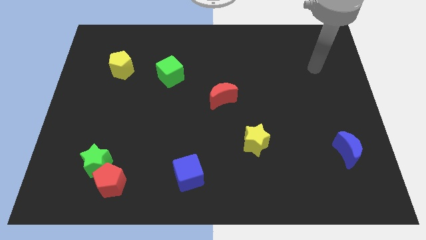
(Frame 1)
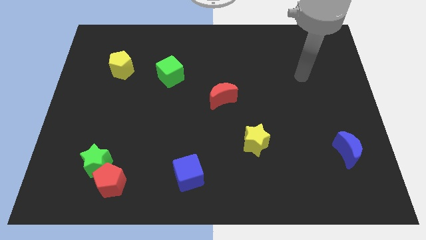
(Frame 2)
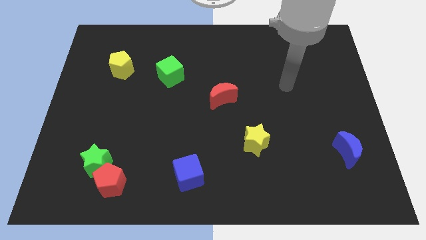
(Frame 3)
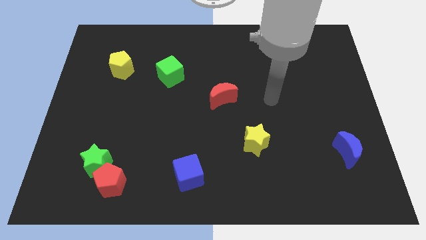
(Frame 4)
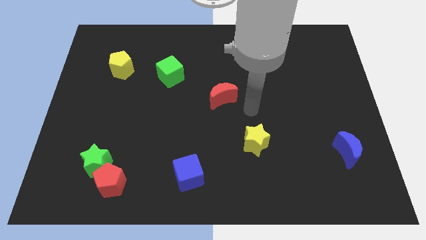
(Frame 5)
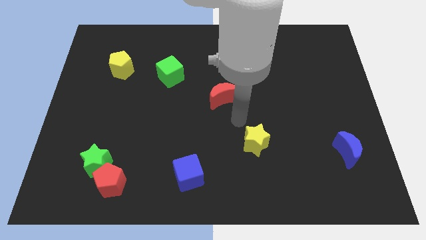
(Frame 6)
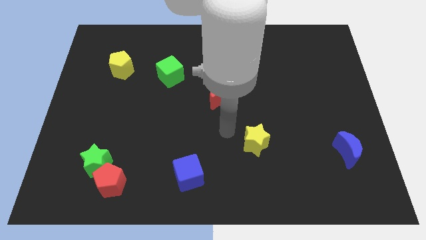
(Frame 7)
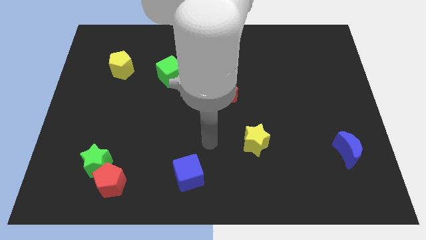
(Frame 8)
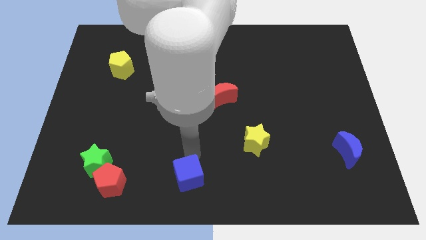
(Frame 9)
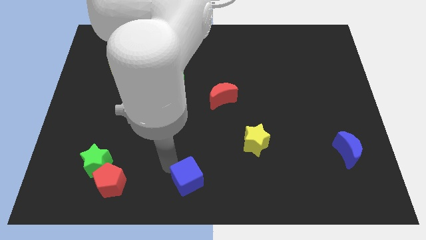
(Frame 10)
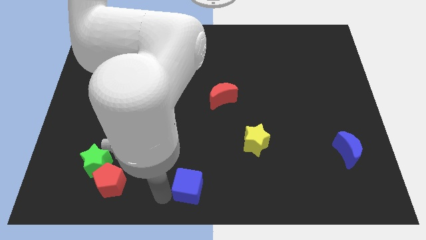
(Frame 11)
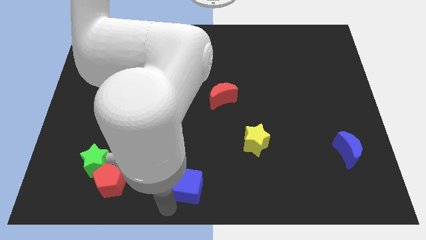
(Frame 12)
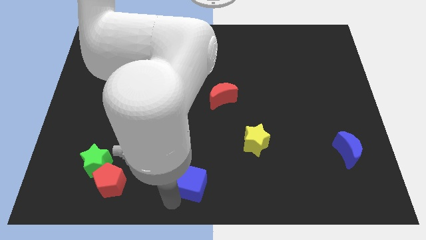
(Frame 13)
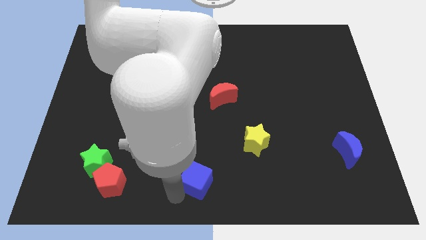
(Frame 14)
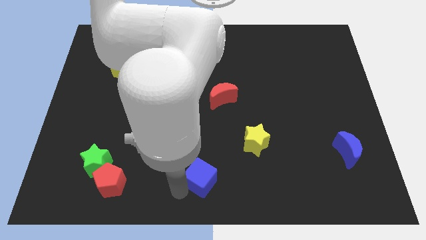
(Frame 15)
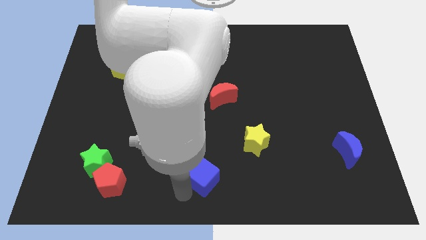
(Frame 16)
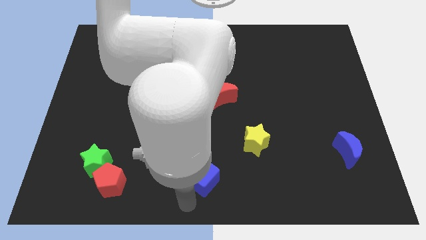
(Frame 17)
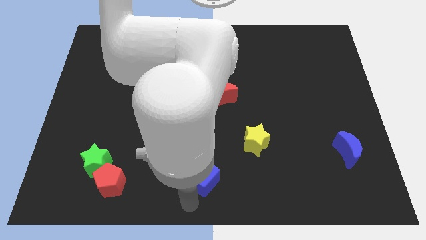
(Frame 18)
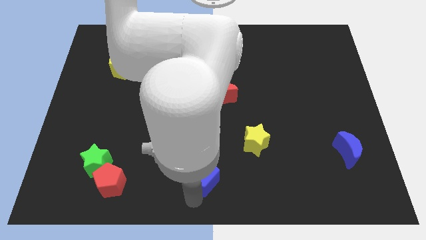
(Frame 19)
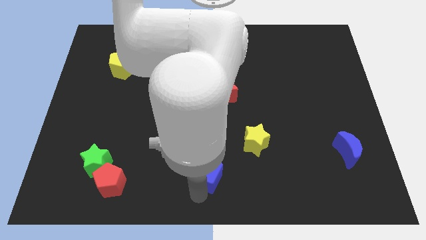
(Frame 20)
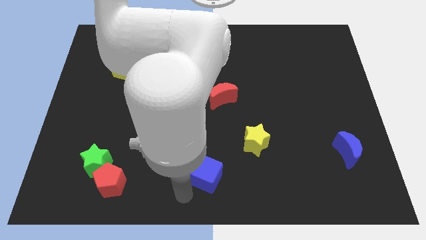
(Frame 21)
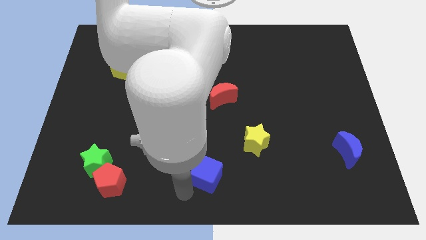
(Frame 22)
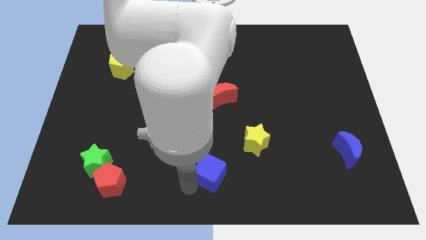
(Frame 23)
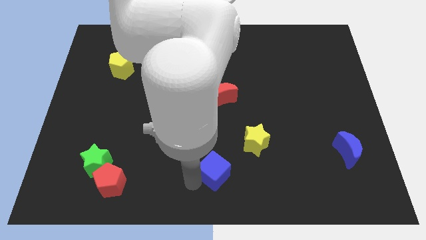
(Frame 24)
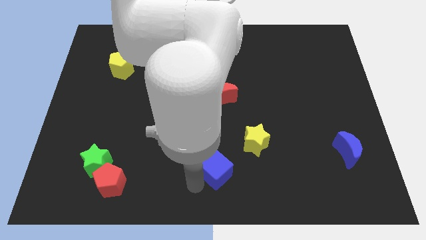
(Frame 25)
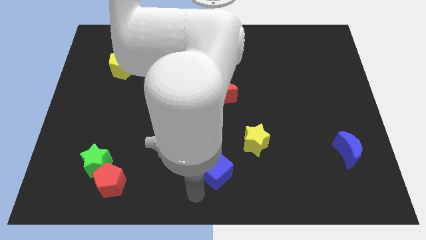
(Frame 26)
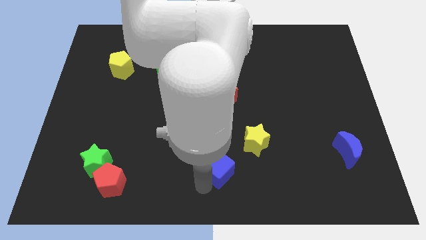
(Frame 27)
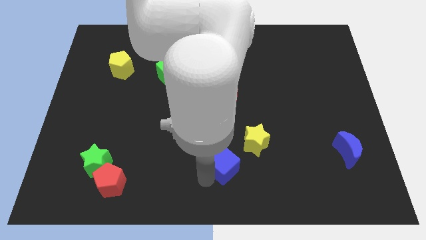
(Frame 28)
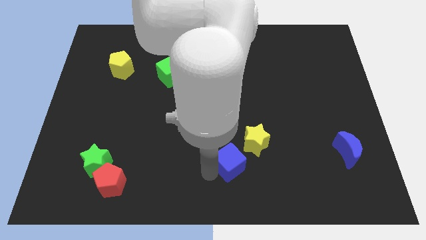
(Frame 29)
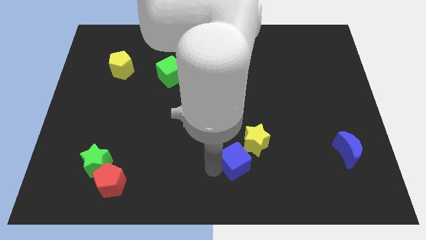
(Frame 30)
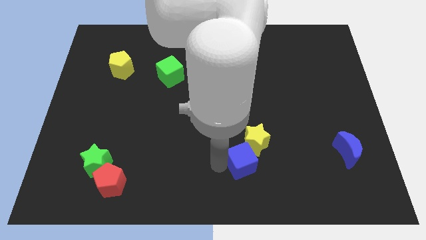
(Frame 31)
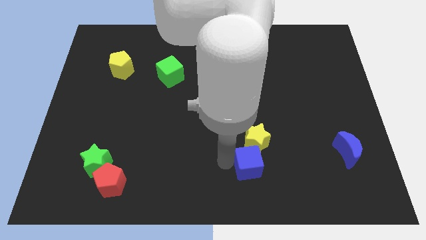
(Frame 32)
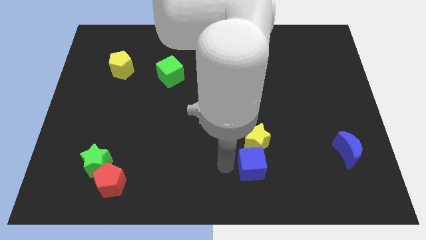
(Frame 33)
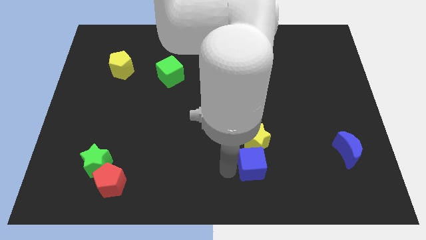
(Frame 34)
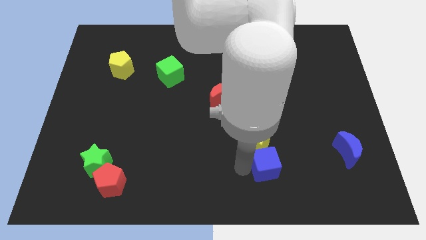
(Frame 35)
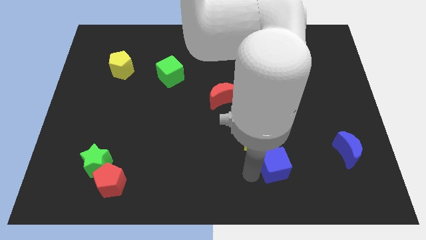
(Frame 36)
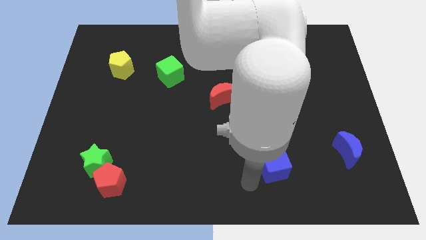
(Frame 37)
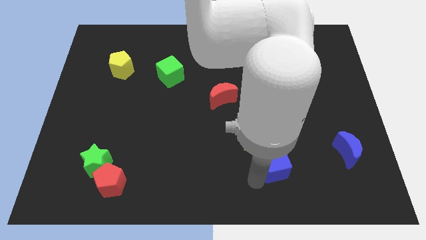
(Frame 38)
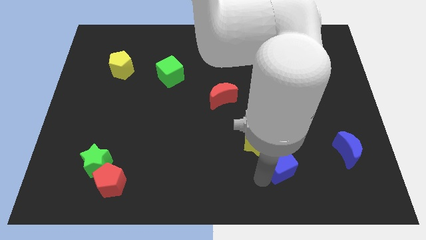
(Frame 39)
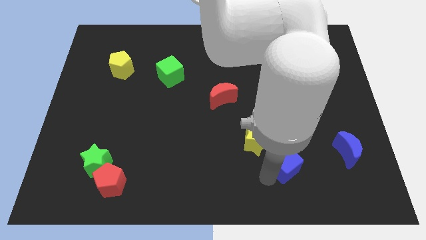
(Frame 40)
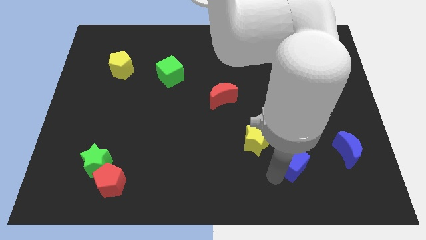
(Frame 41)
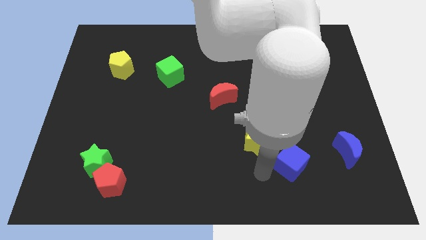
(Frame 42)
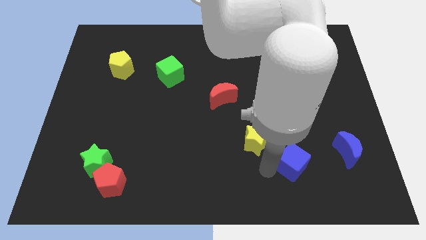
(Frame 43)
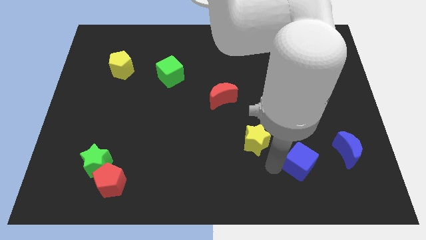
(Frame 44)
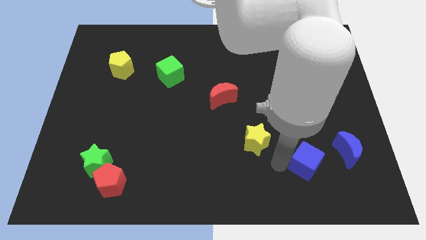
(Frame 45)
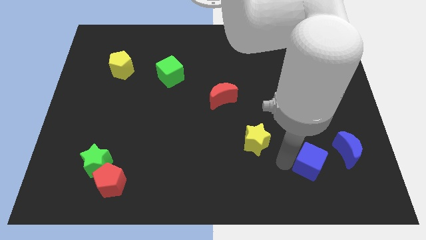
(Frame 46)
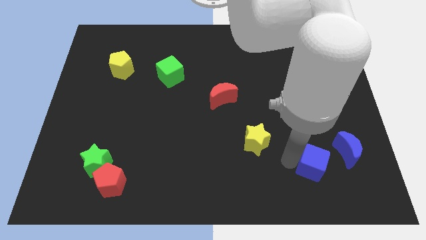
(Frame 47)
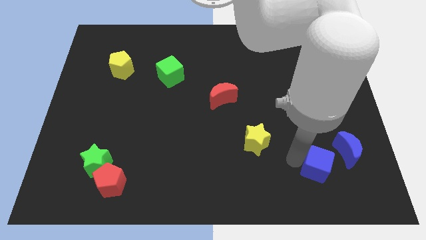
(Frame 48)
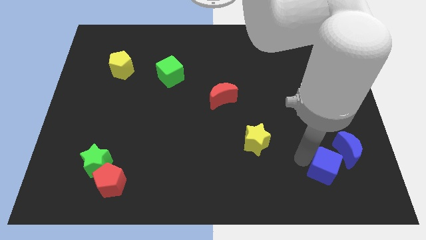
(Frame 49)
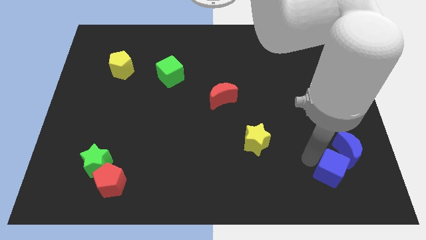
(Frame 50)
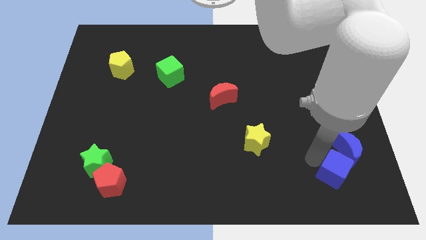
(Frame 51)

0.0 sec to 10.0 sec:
put the blue cube to the blue moon

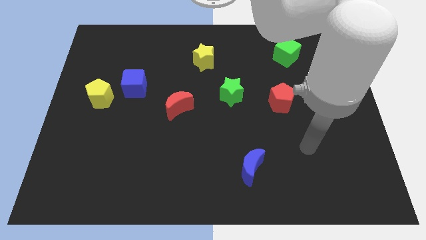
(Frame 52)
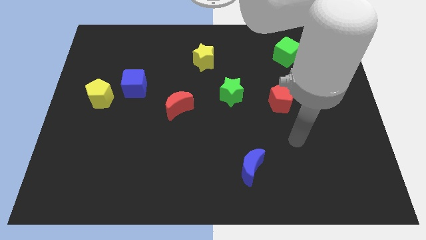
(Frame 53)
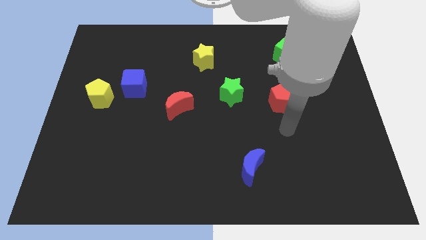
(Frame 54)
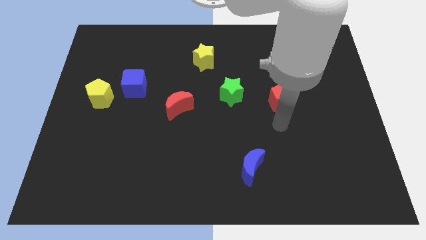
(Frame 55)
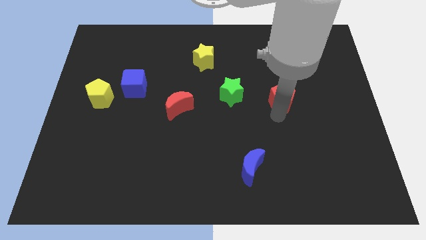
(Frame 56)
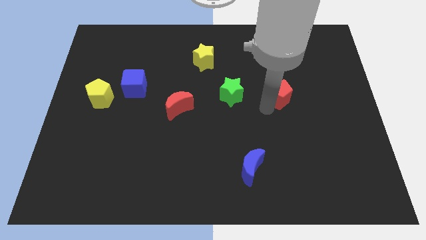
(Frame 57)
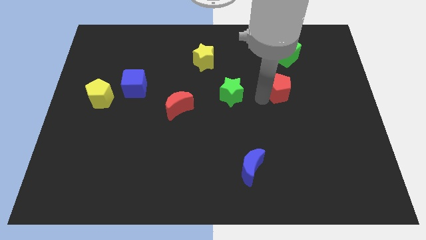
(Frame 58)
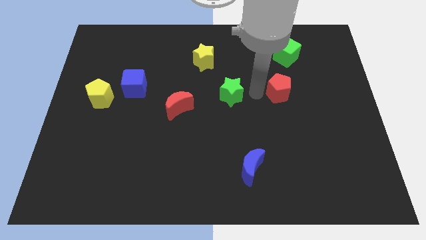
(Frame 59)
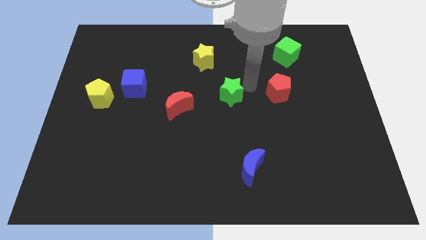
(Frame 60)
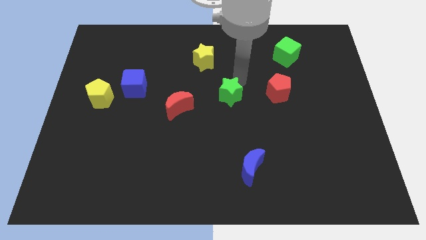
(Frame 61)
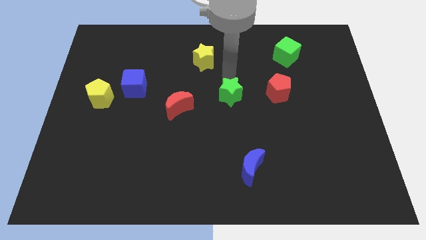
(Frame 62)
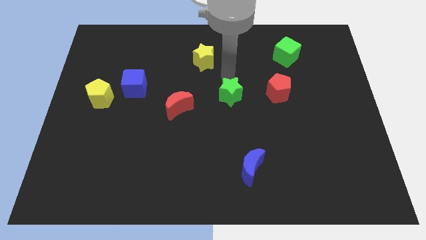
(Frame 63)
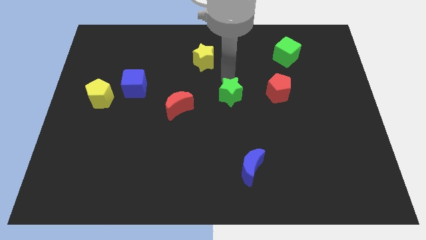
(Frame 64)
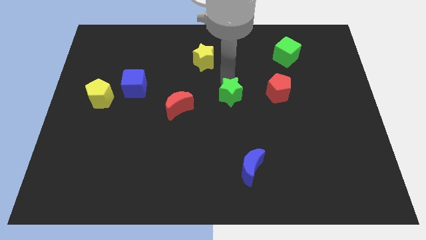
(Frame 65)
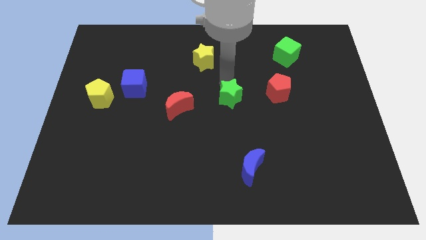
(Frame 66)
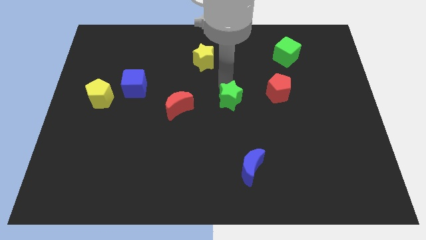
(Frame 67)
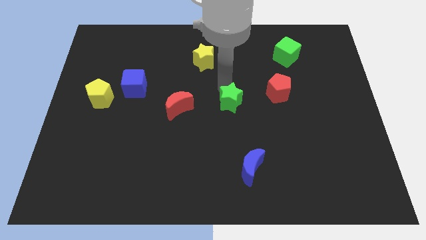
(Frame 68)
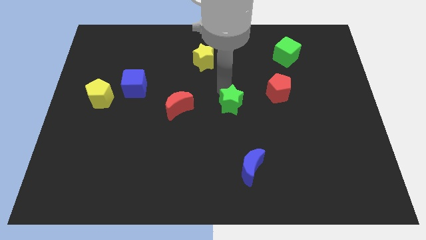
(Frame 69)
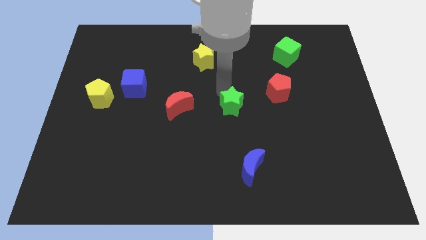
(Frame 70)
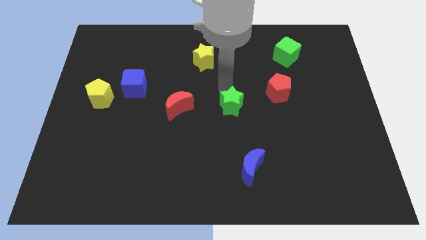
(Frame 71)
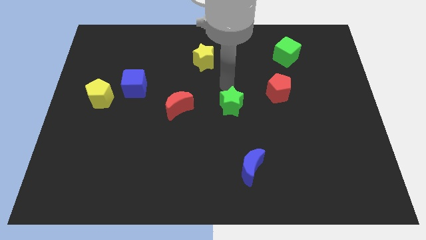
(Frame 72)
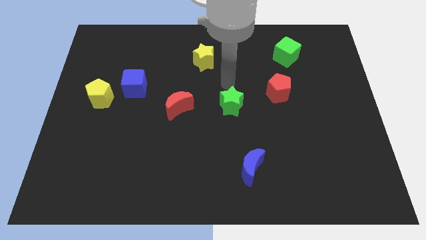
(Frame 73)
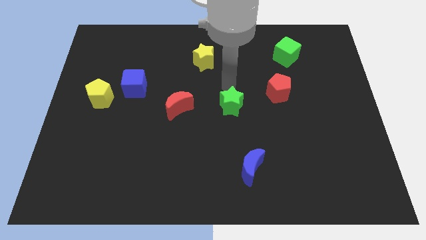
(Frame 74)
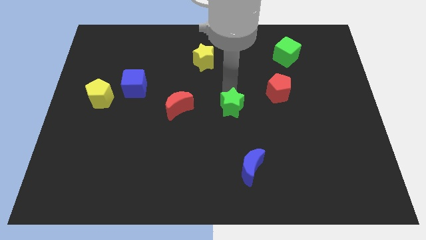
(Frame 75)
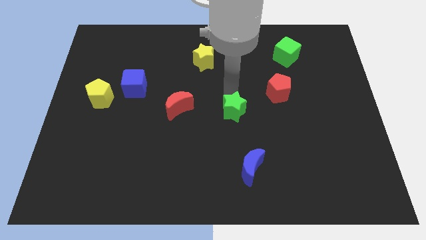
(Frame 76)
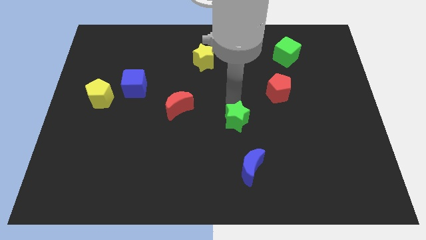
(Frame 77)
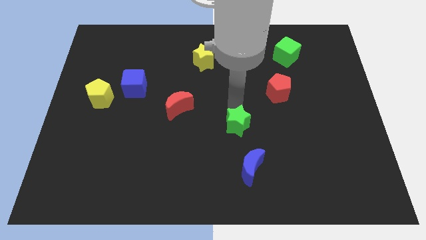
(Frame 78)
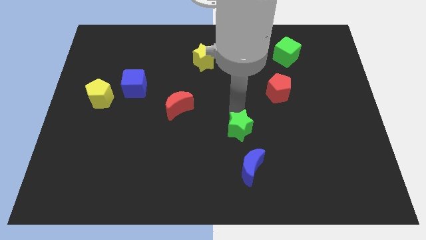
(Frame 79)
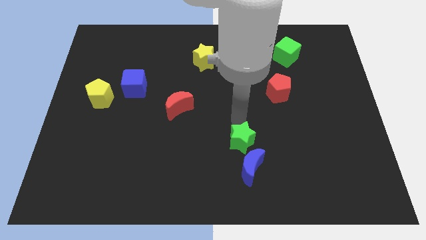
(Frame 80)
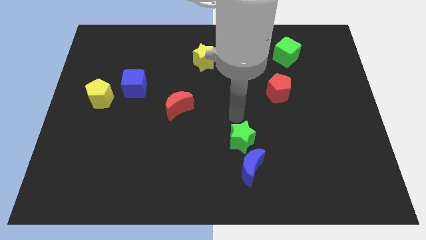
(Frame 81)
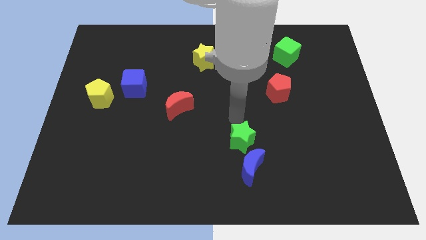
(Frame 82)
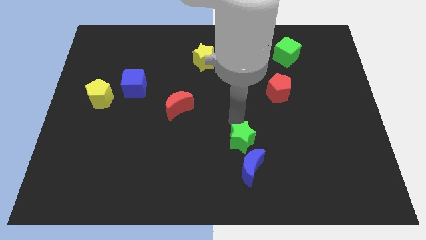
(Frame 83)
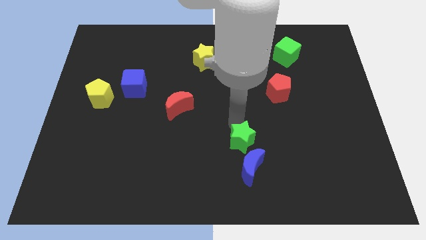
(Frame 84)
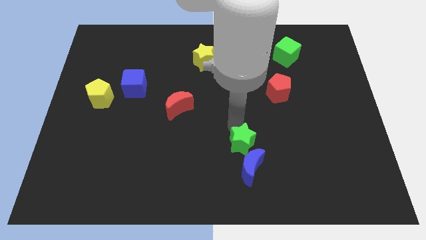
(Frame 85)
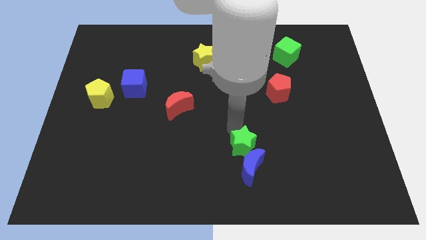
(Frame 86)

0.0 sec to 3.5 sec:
slide the green star towards the blue moon
